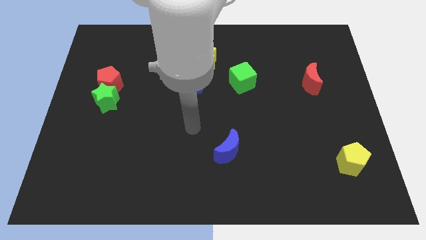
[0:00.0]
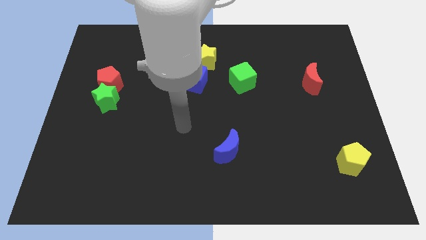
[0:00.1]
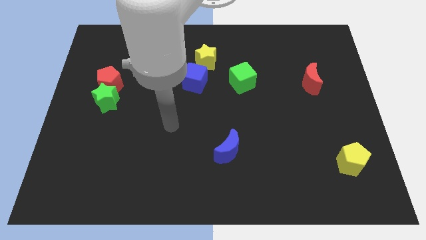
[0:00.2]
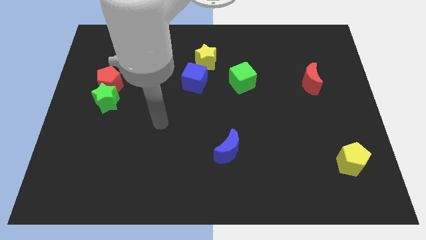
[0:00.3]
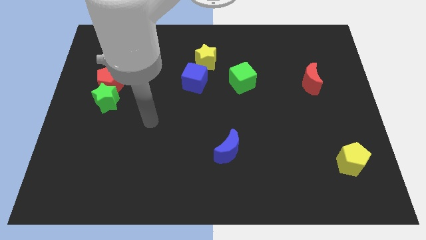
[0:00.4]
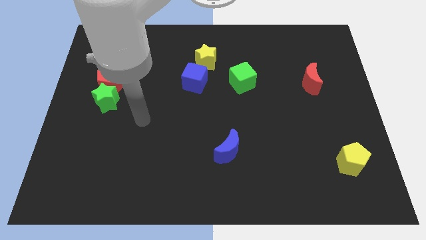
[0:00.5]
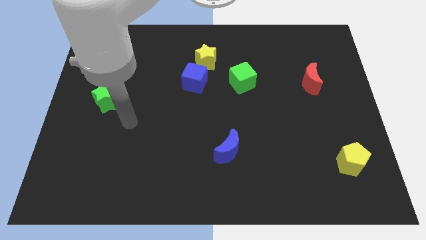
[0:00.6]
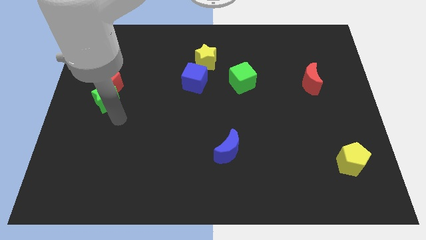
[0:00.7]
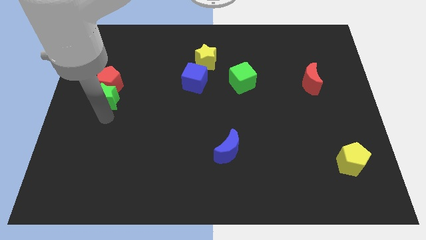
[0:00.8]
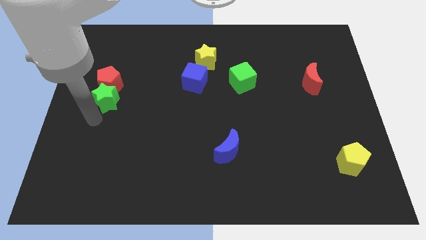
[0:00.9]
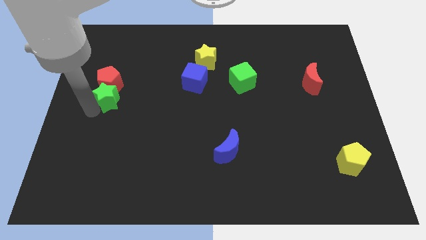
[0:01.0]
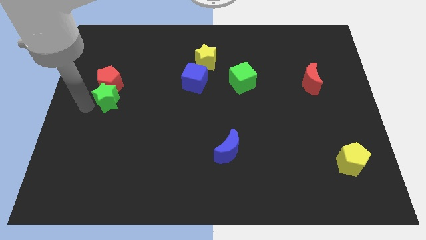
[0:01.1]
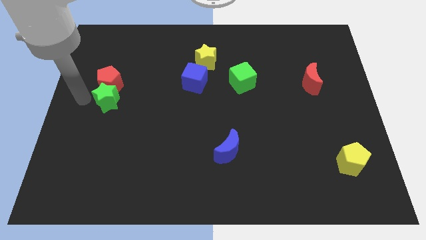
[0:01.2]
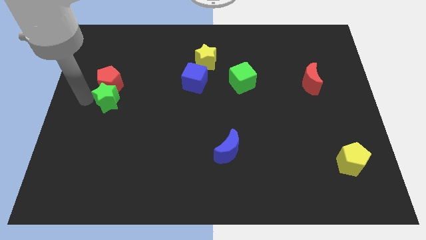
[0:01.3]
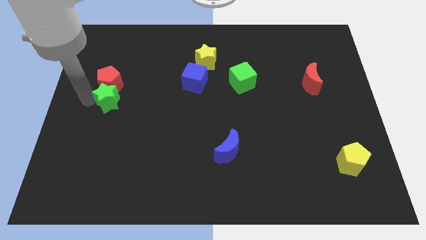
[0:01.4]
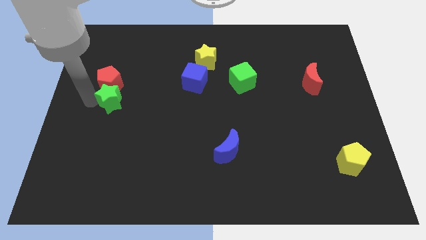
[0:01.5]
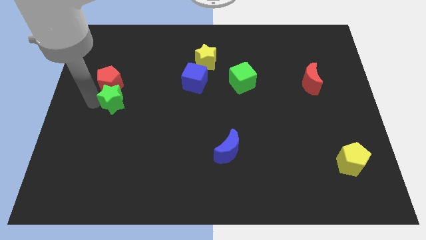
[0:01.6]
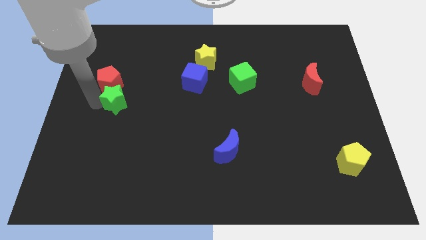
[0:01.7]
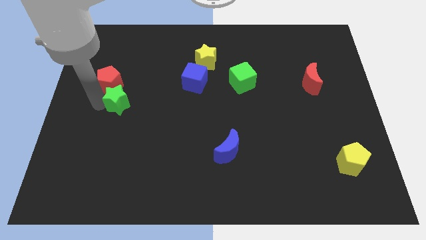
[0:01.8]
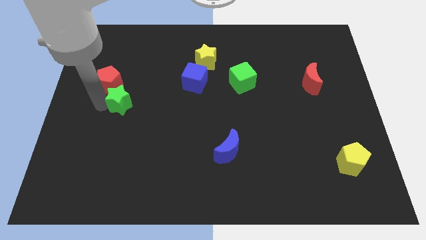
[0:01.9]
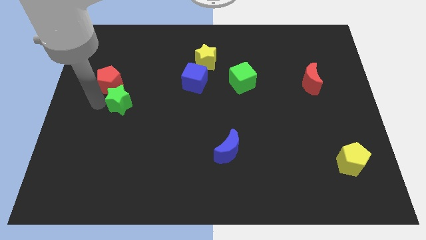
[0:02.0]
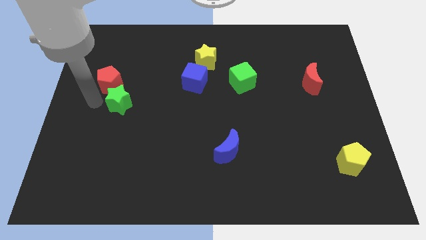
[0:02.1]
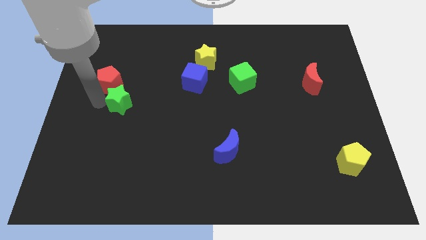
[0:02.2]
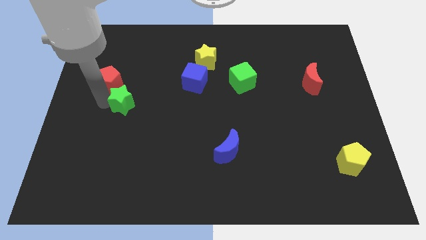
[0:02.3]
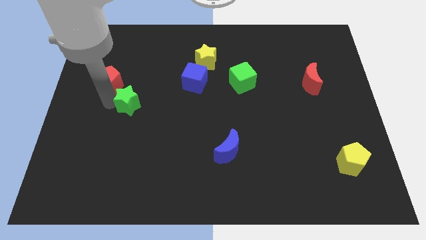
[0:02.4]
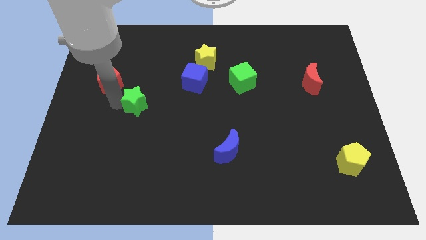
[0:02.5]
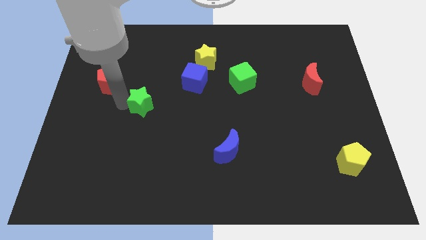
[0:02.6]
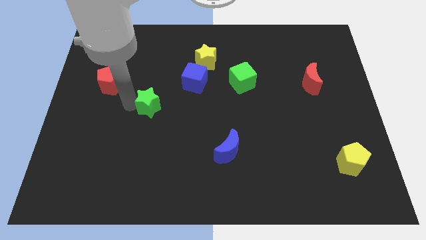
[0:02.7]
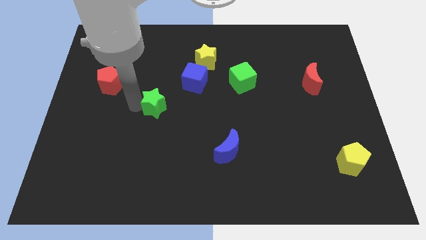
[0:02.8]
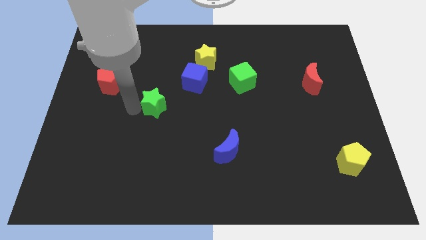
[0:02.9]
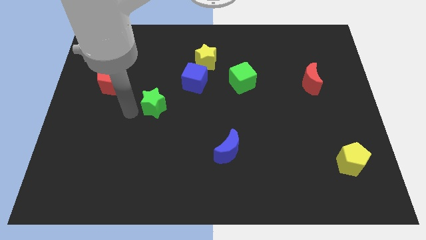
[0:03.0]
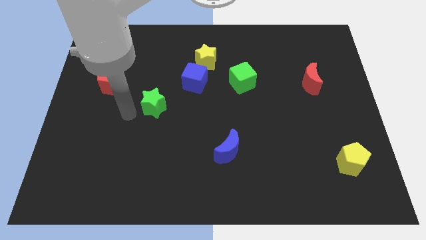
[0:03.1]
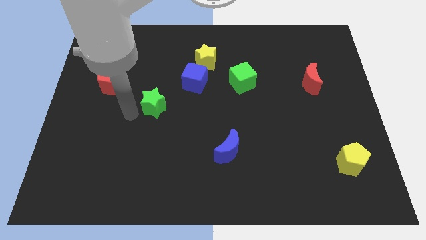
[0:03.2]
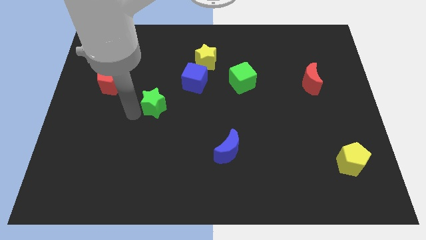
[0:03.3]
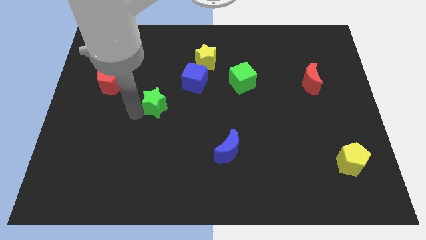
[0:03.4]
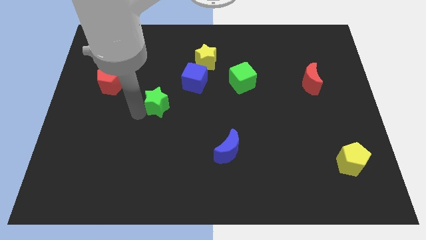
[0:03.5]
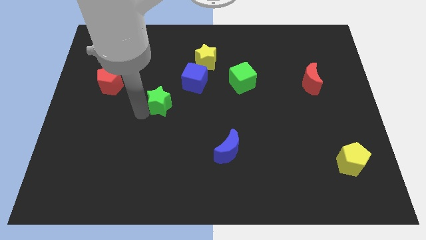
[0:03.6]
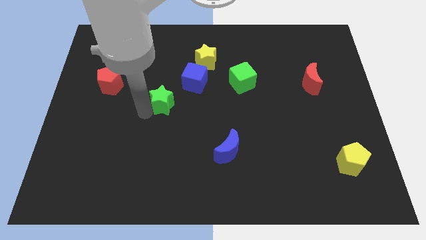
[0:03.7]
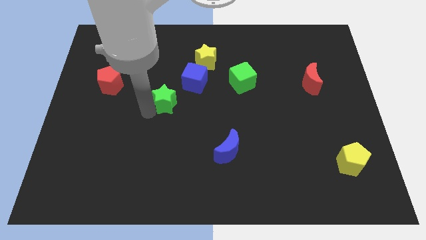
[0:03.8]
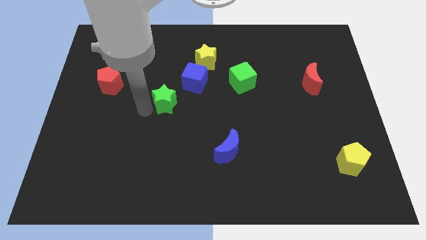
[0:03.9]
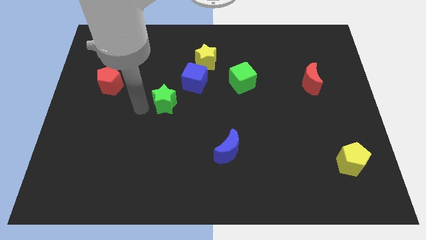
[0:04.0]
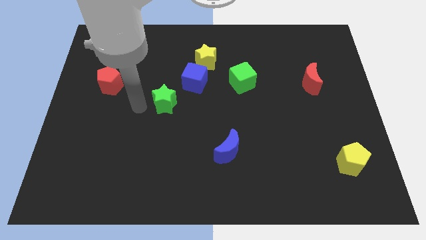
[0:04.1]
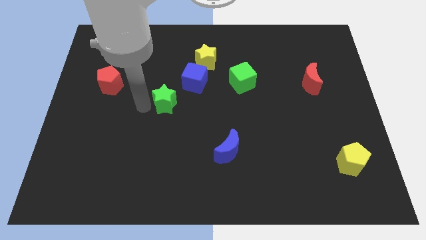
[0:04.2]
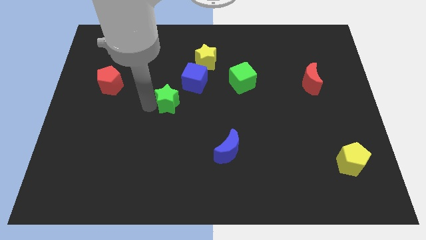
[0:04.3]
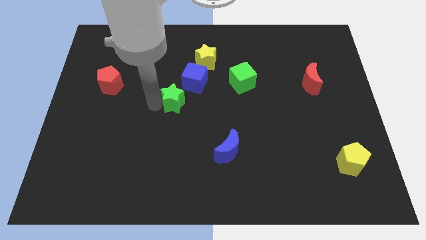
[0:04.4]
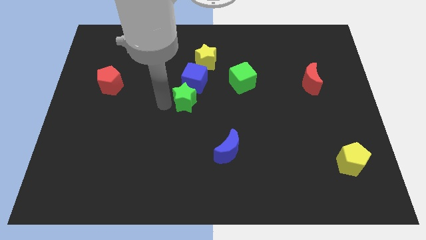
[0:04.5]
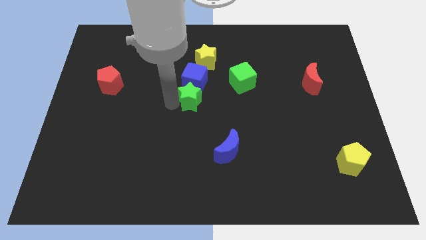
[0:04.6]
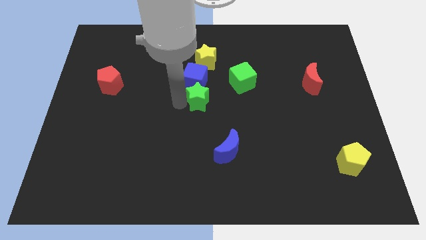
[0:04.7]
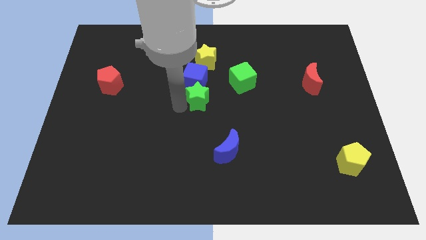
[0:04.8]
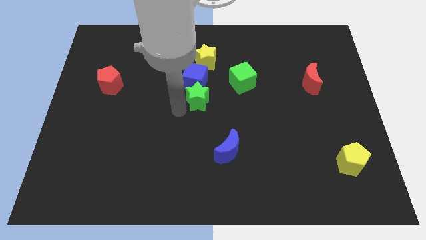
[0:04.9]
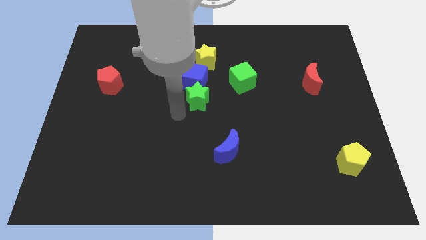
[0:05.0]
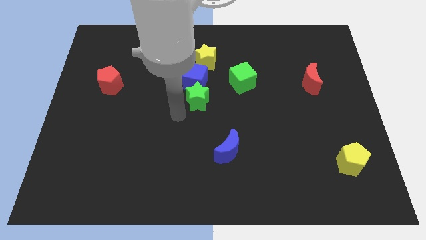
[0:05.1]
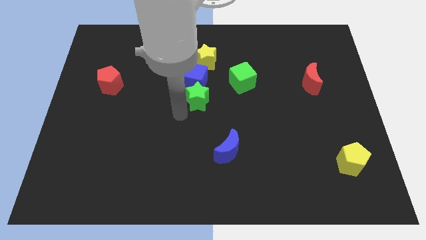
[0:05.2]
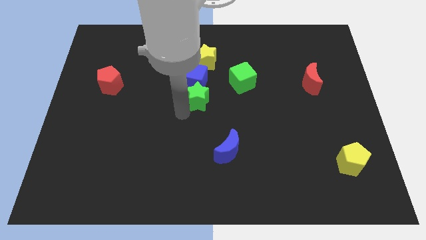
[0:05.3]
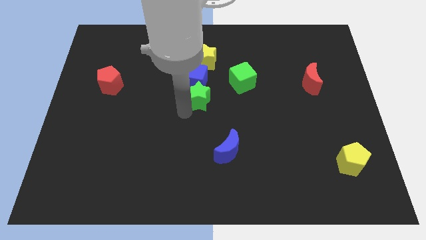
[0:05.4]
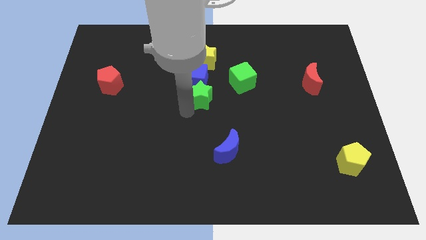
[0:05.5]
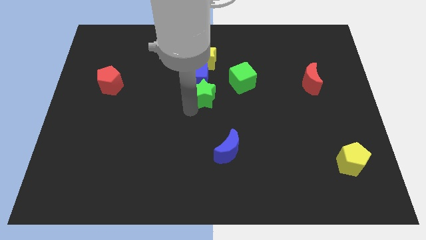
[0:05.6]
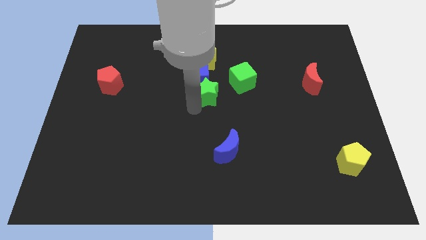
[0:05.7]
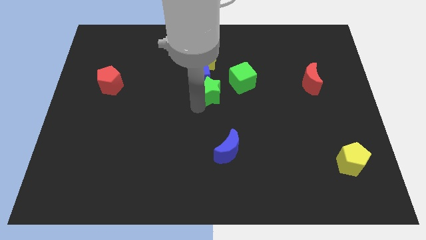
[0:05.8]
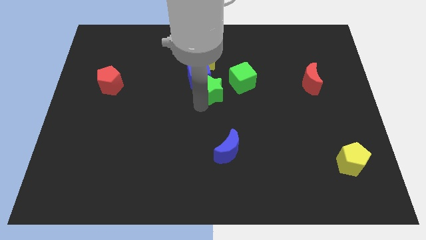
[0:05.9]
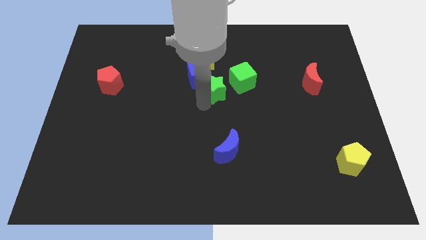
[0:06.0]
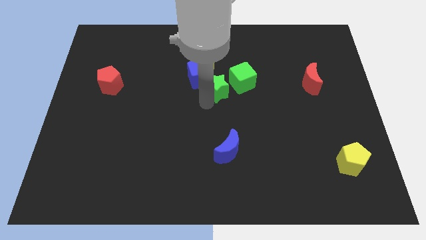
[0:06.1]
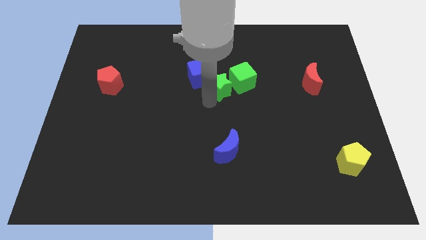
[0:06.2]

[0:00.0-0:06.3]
slide the green star diagonally down and to the right of the yellow star

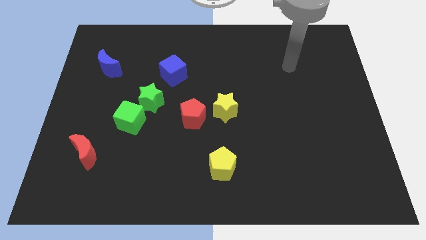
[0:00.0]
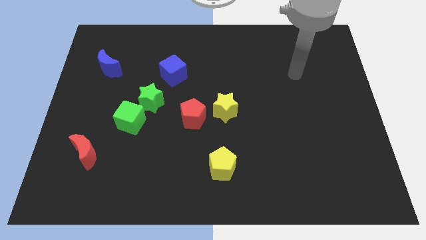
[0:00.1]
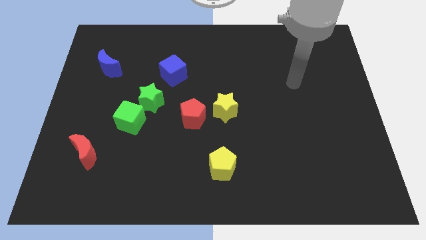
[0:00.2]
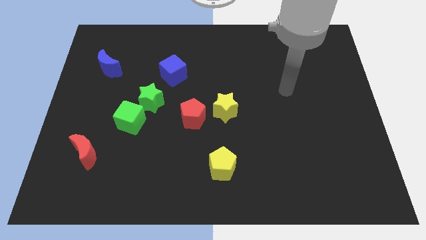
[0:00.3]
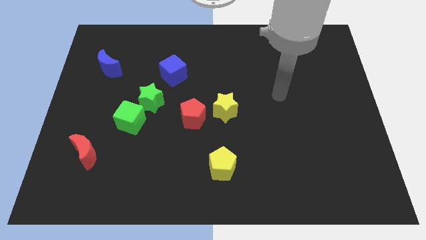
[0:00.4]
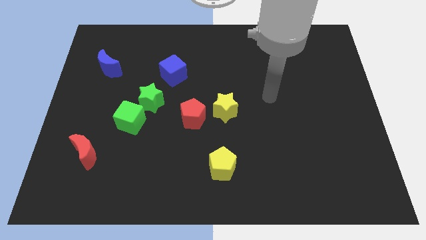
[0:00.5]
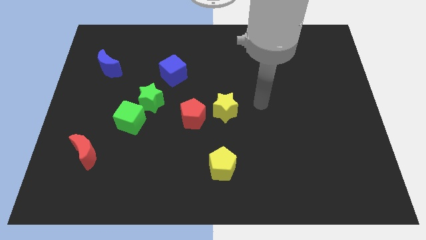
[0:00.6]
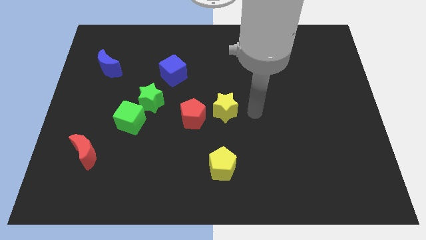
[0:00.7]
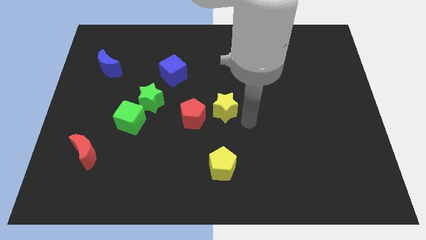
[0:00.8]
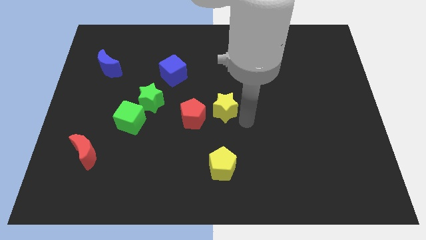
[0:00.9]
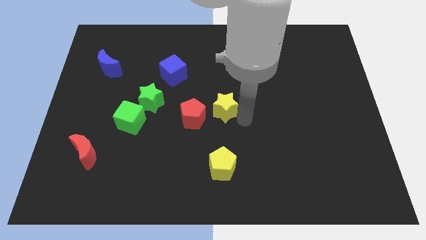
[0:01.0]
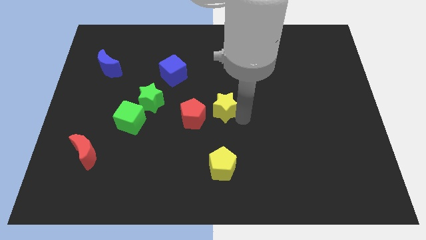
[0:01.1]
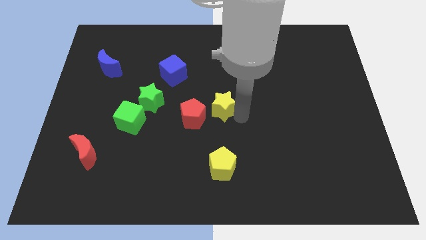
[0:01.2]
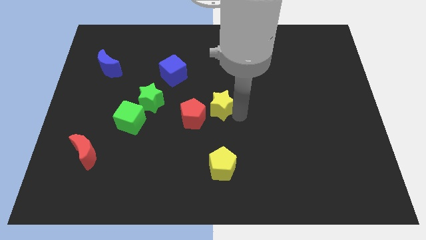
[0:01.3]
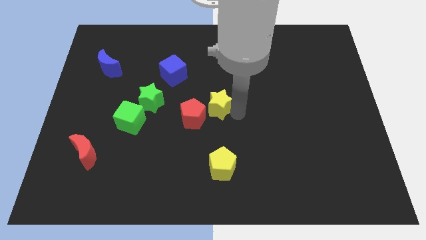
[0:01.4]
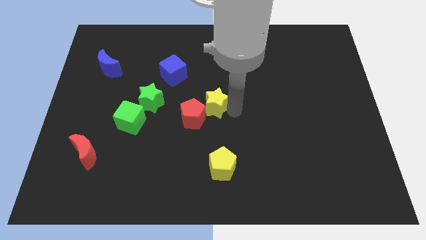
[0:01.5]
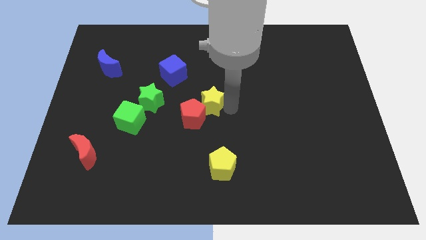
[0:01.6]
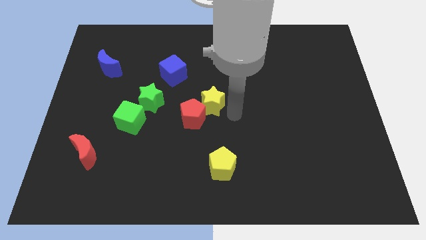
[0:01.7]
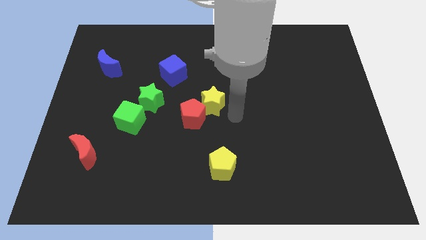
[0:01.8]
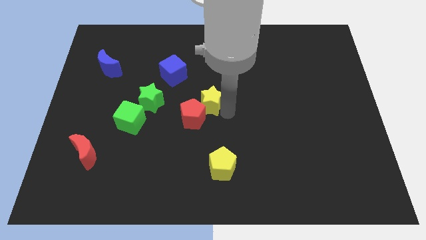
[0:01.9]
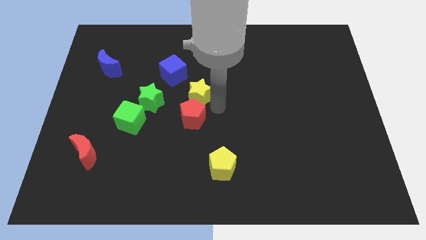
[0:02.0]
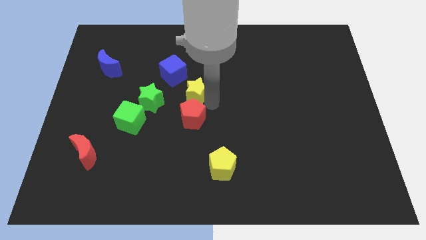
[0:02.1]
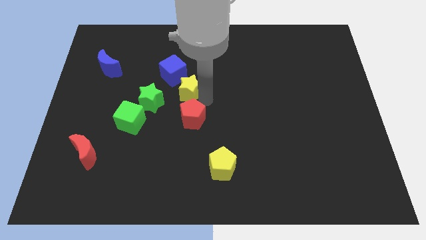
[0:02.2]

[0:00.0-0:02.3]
push the yellow star to the top right of the green star
